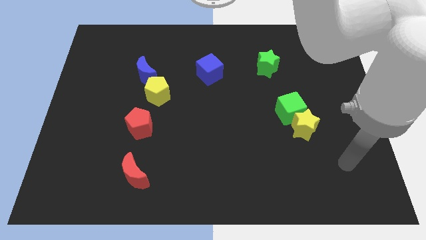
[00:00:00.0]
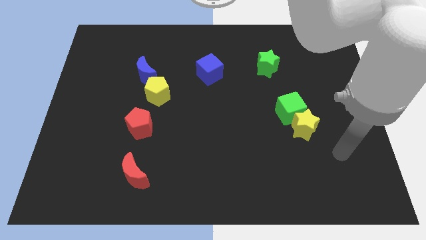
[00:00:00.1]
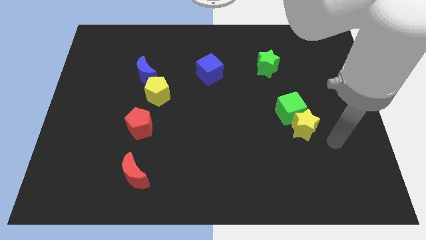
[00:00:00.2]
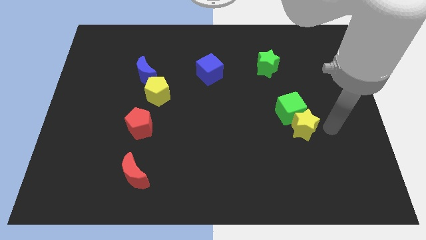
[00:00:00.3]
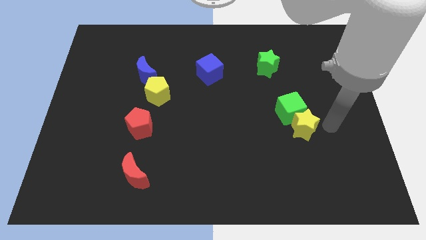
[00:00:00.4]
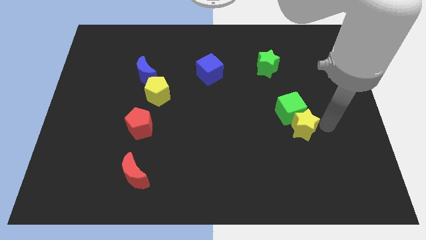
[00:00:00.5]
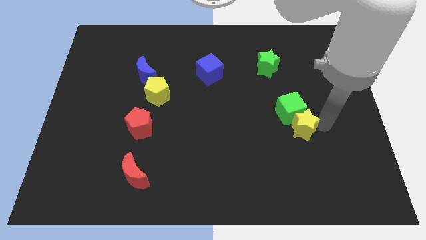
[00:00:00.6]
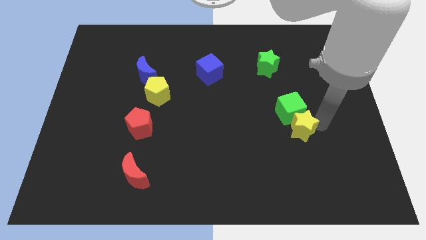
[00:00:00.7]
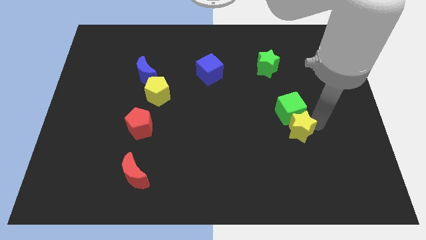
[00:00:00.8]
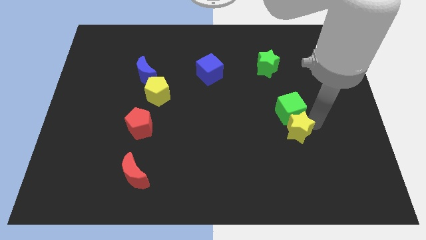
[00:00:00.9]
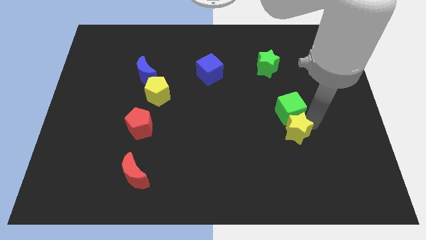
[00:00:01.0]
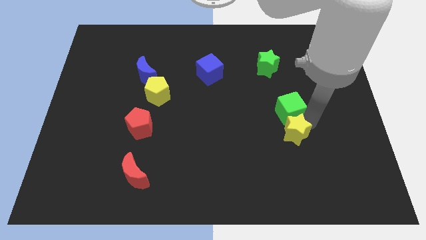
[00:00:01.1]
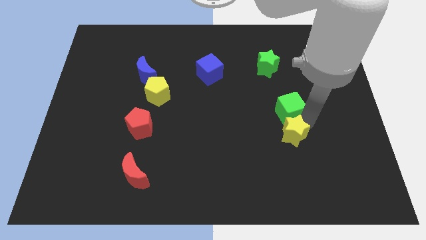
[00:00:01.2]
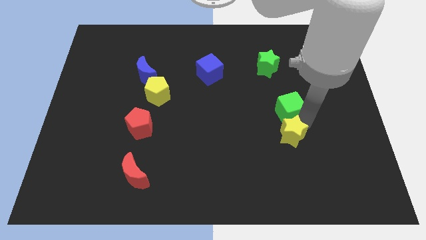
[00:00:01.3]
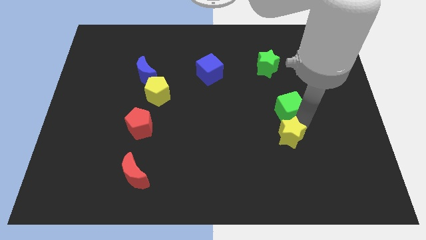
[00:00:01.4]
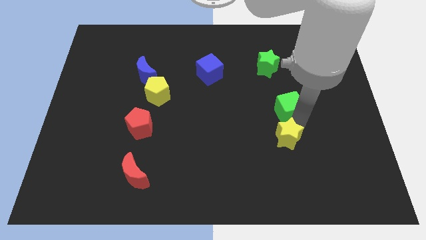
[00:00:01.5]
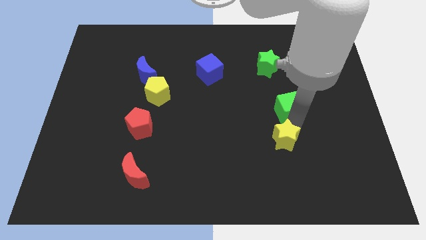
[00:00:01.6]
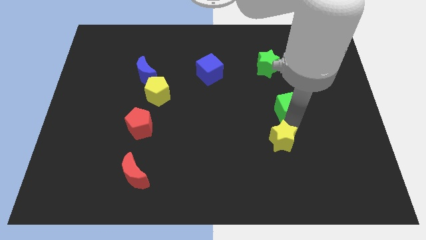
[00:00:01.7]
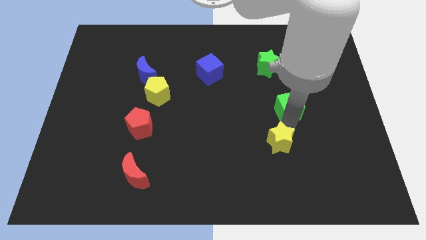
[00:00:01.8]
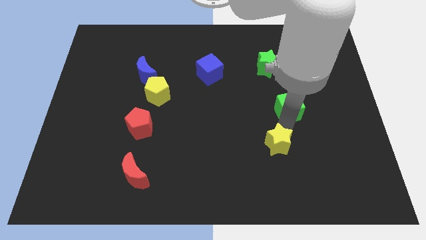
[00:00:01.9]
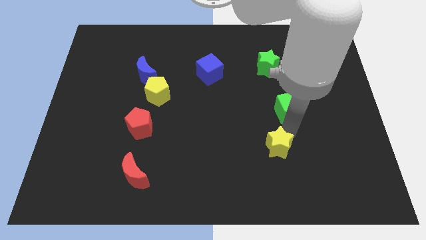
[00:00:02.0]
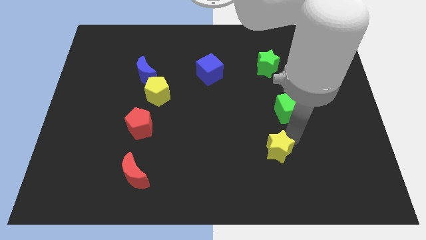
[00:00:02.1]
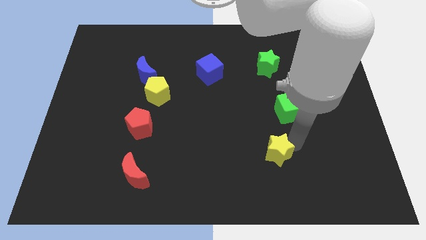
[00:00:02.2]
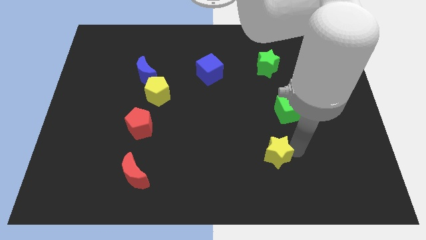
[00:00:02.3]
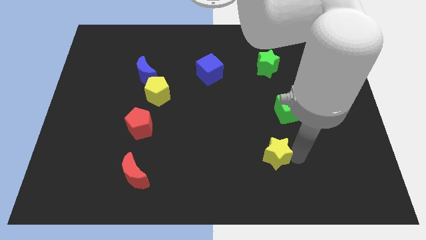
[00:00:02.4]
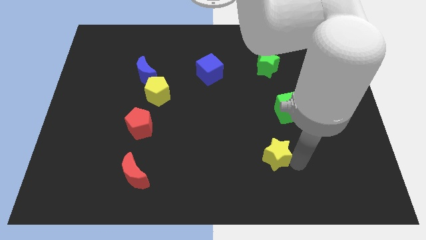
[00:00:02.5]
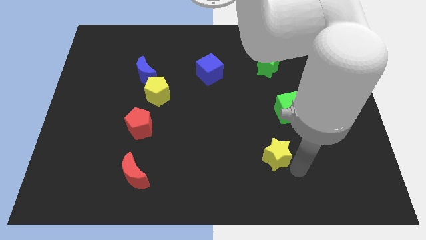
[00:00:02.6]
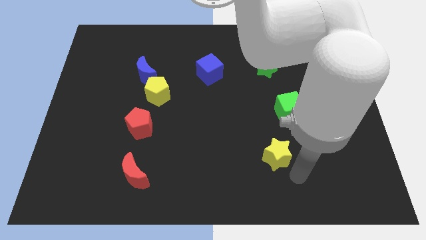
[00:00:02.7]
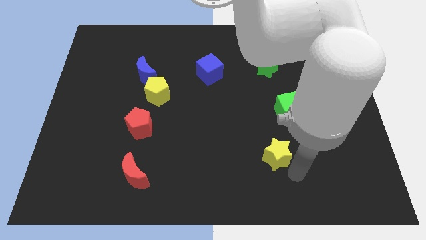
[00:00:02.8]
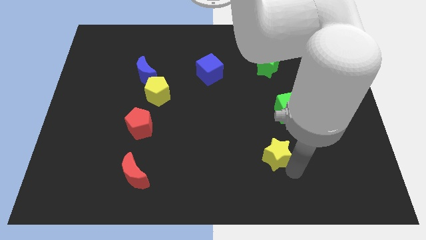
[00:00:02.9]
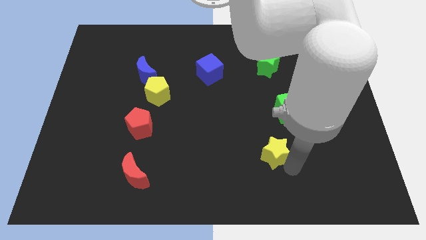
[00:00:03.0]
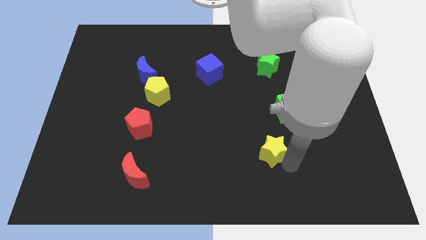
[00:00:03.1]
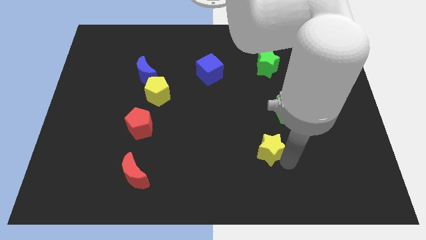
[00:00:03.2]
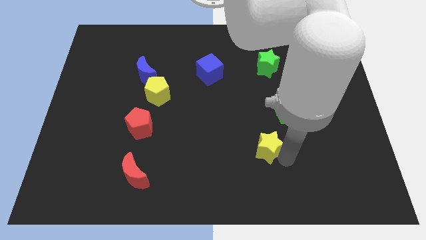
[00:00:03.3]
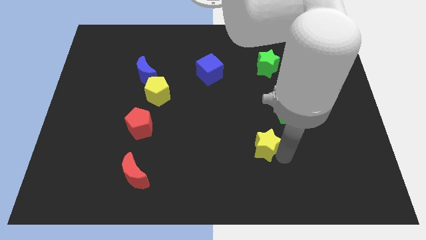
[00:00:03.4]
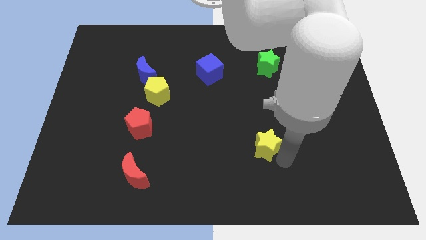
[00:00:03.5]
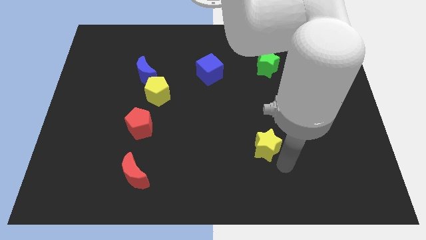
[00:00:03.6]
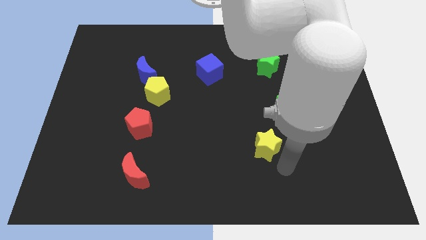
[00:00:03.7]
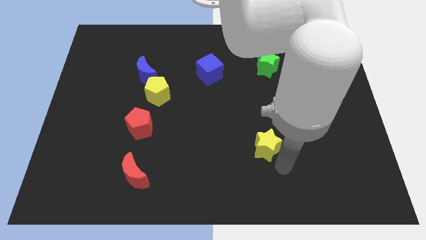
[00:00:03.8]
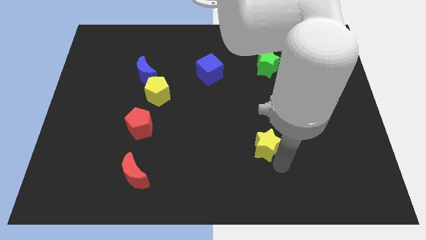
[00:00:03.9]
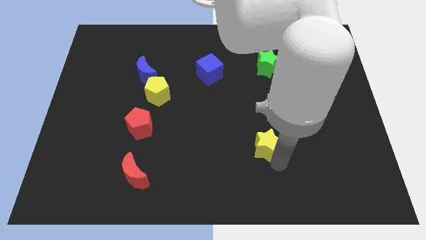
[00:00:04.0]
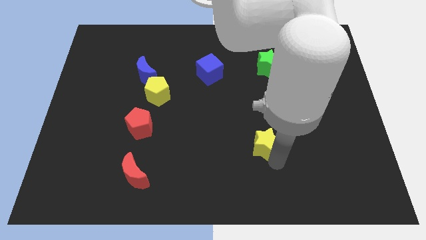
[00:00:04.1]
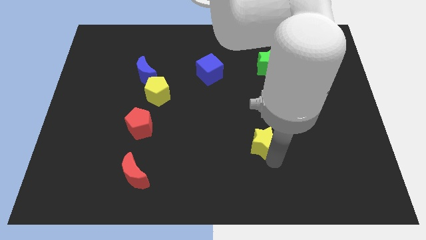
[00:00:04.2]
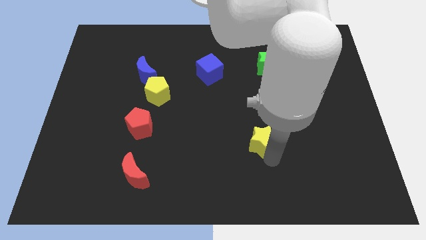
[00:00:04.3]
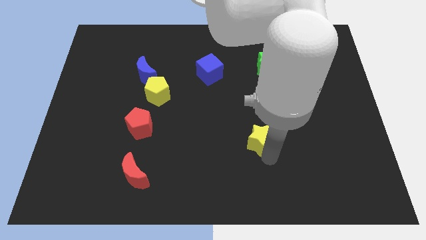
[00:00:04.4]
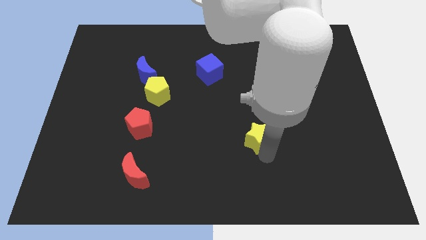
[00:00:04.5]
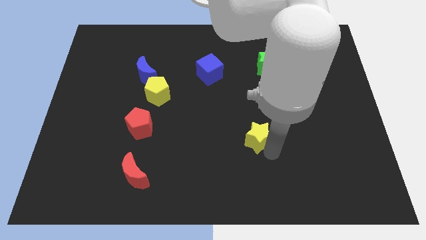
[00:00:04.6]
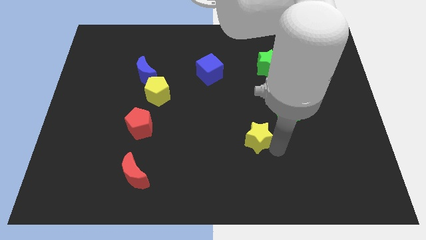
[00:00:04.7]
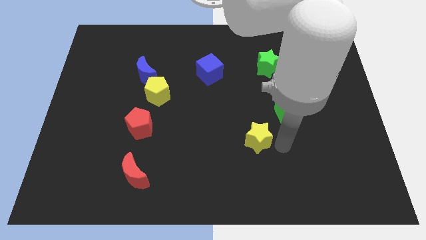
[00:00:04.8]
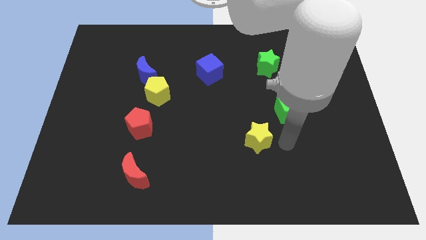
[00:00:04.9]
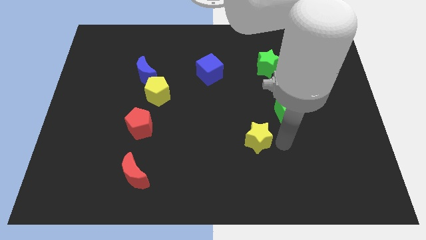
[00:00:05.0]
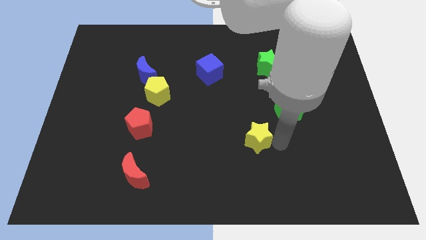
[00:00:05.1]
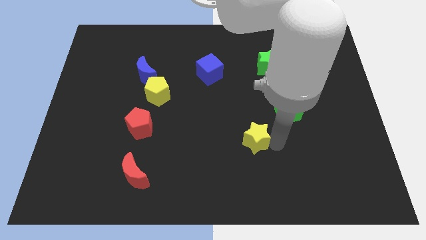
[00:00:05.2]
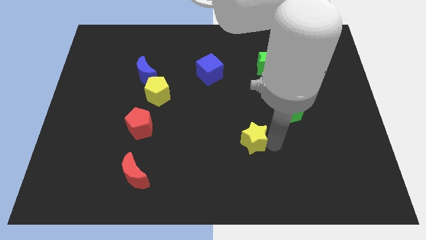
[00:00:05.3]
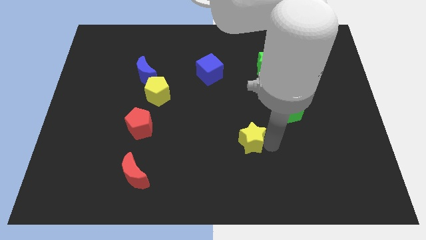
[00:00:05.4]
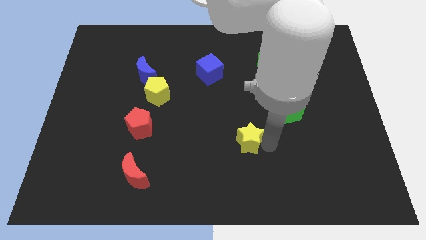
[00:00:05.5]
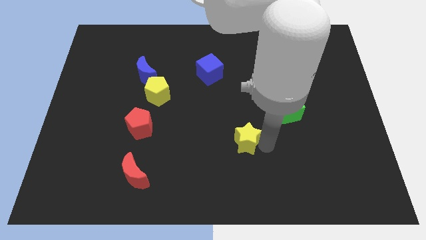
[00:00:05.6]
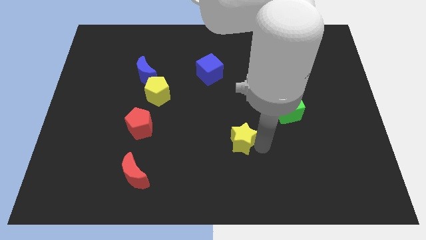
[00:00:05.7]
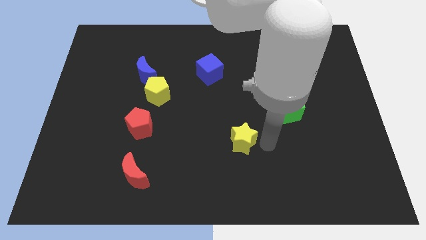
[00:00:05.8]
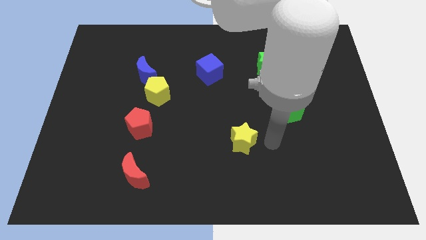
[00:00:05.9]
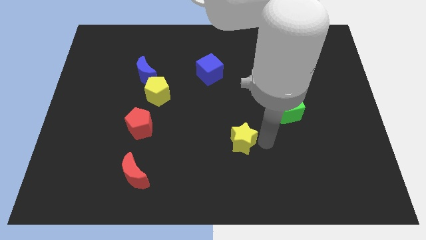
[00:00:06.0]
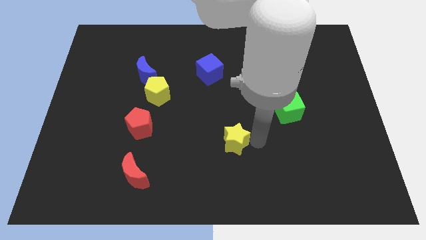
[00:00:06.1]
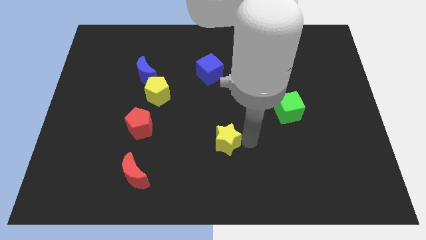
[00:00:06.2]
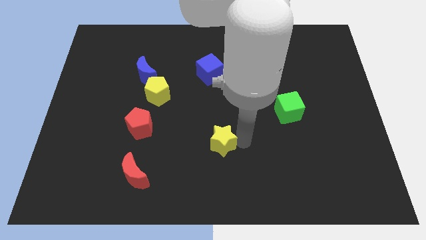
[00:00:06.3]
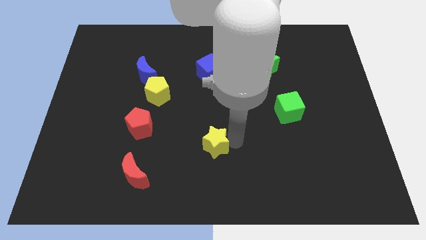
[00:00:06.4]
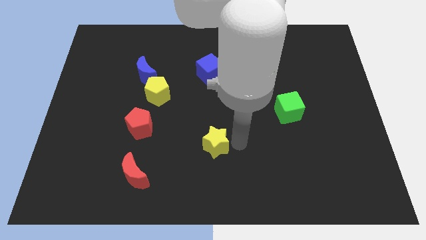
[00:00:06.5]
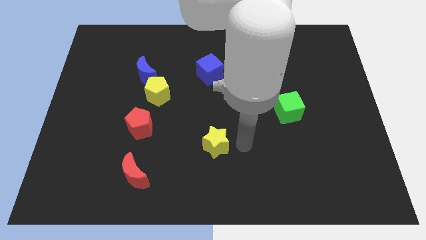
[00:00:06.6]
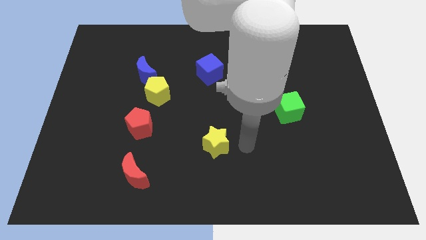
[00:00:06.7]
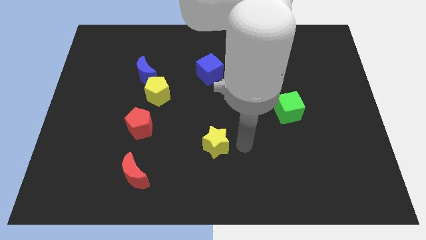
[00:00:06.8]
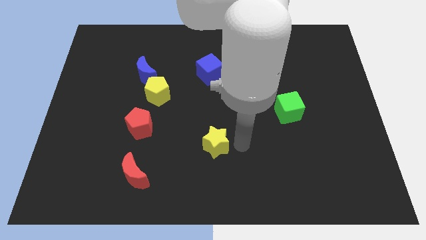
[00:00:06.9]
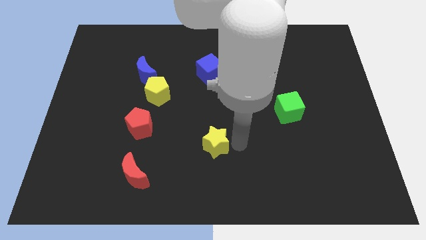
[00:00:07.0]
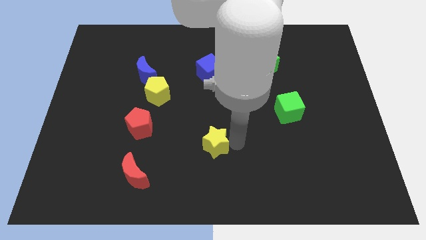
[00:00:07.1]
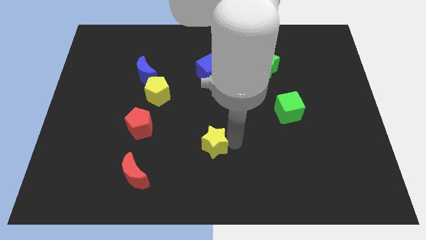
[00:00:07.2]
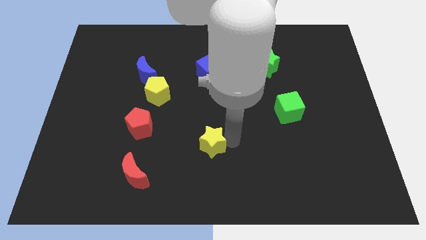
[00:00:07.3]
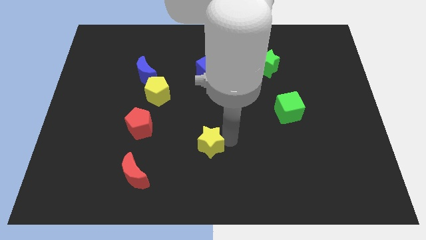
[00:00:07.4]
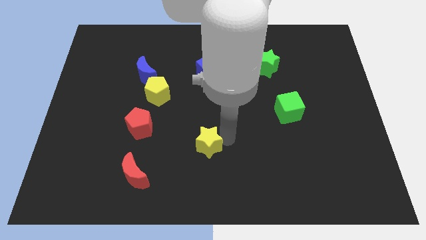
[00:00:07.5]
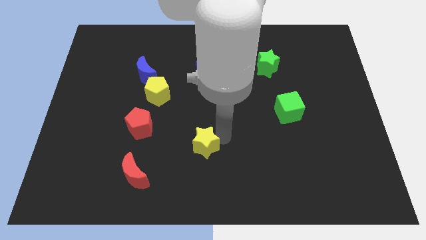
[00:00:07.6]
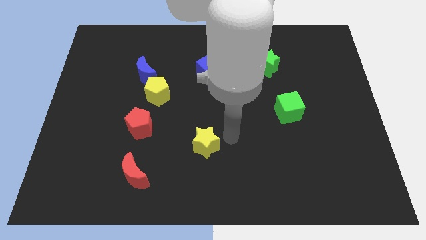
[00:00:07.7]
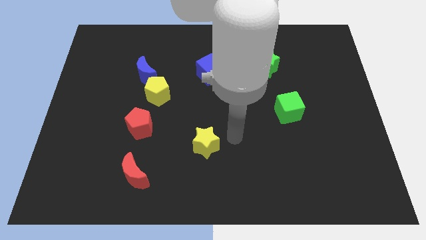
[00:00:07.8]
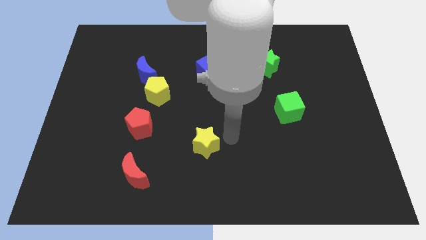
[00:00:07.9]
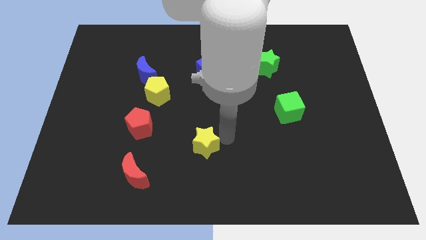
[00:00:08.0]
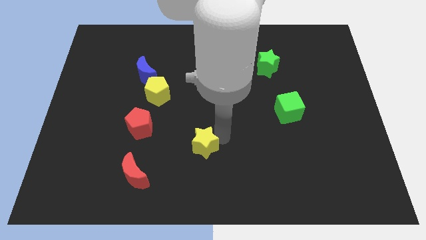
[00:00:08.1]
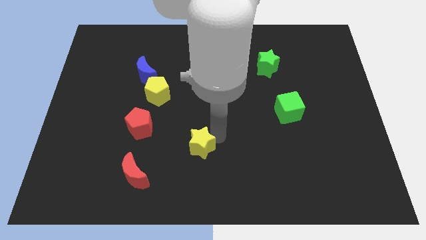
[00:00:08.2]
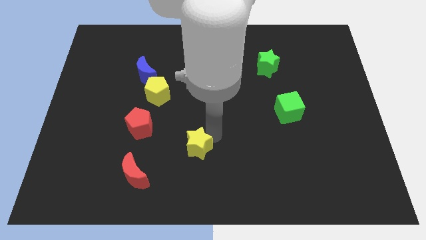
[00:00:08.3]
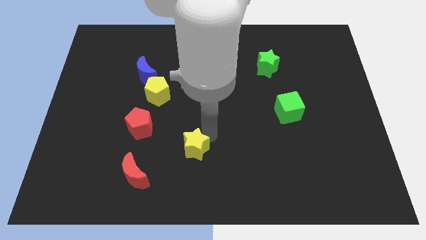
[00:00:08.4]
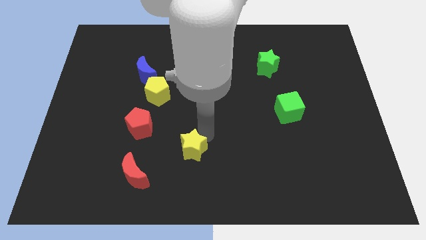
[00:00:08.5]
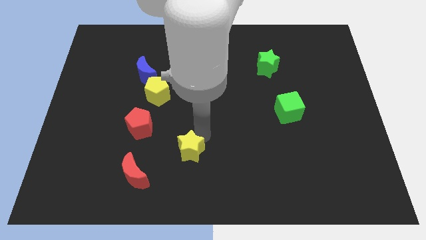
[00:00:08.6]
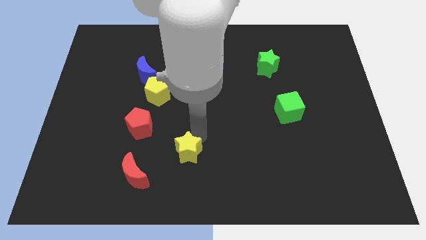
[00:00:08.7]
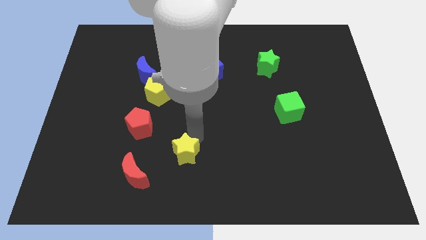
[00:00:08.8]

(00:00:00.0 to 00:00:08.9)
put the yellow star diagonally up and to the right of the red moon
